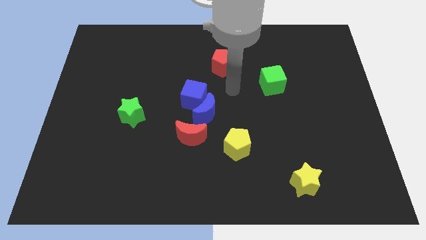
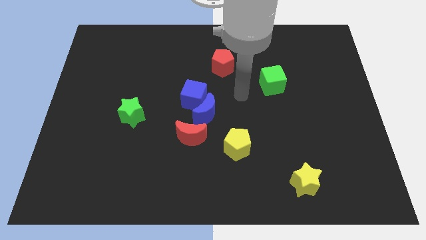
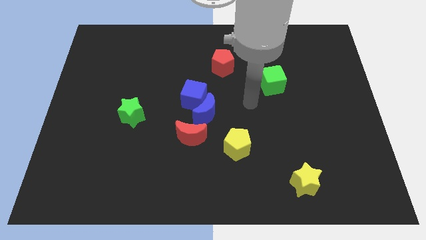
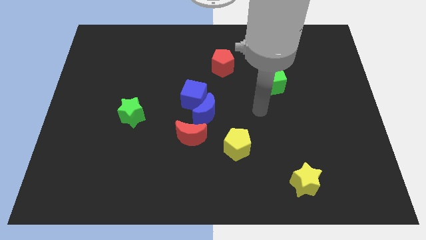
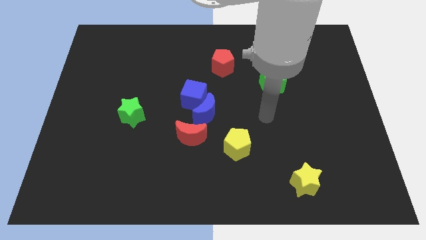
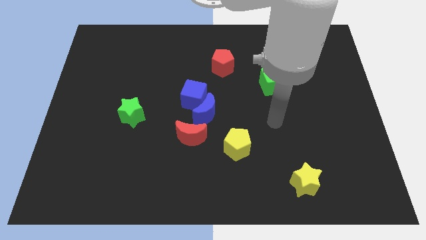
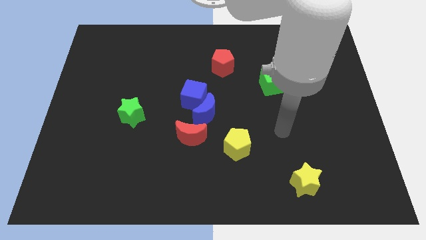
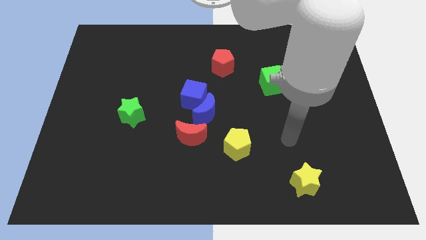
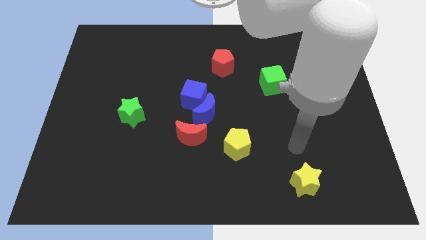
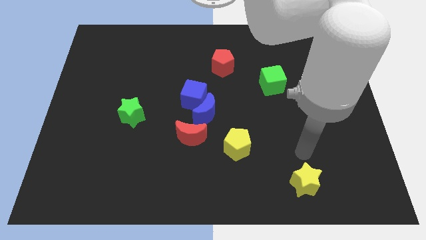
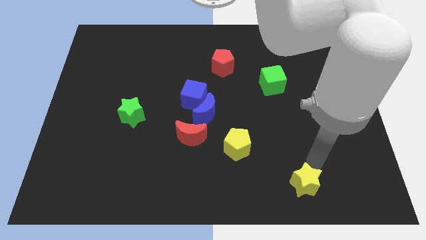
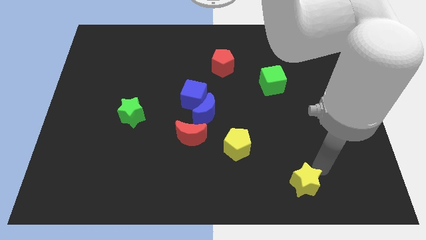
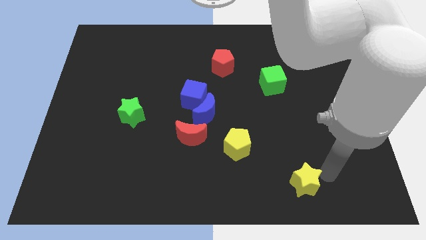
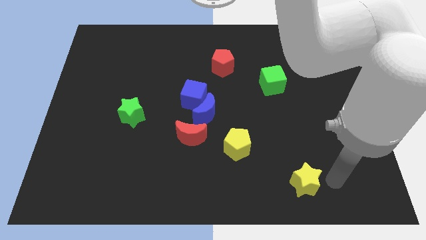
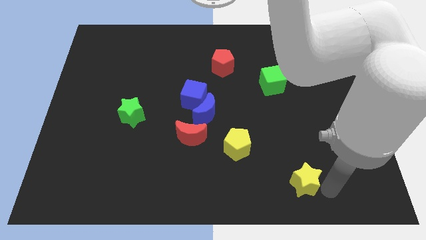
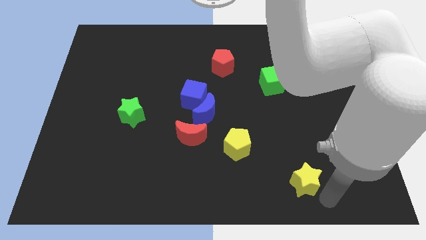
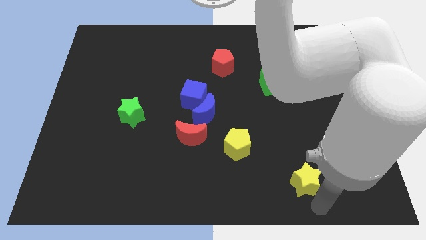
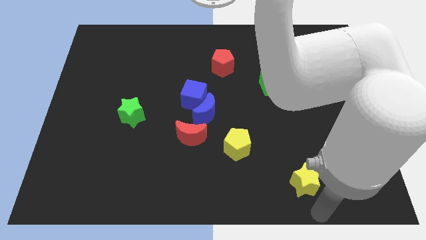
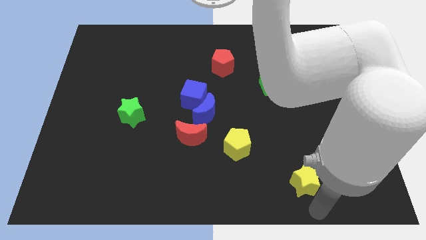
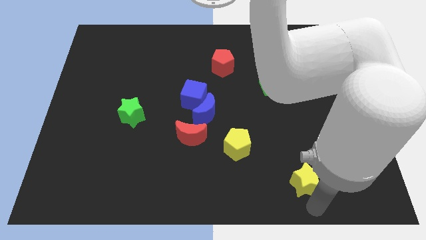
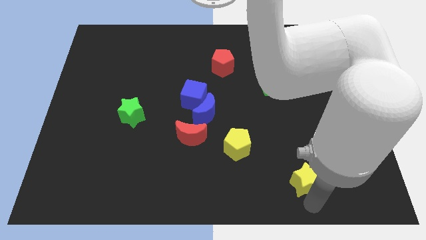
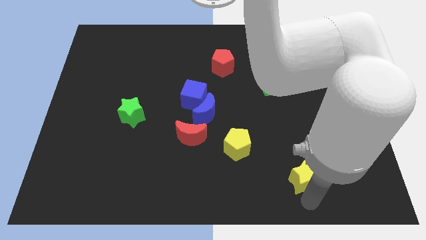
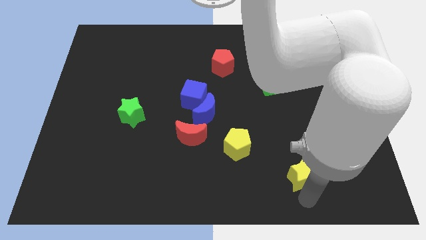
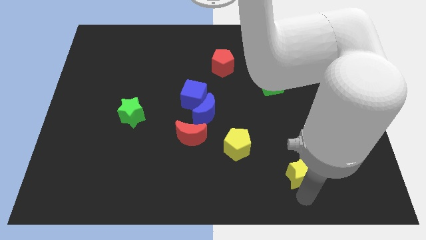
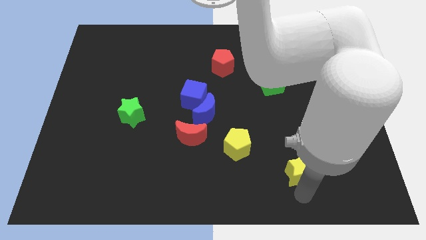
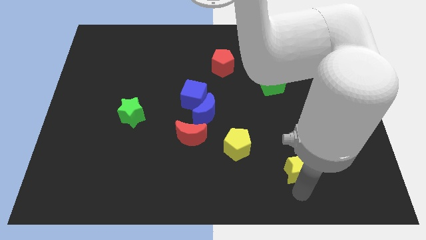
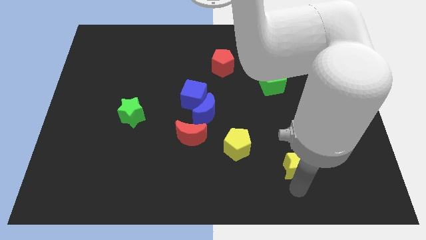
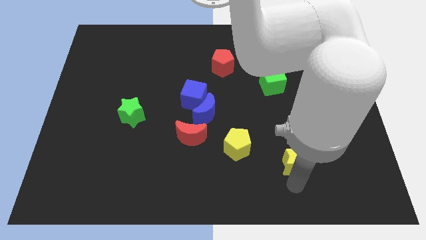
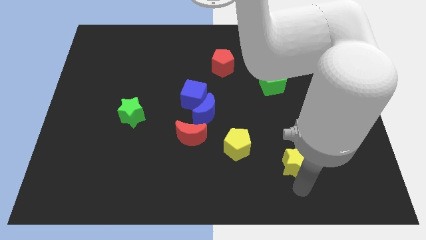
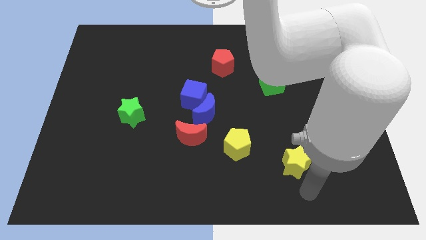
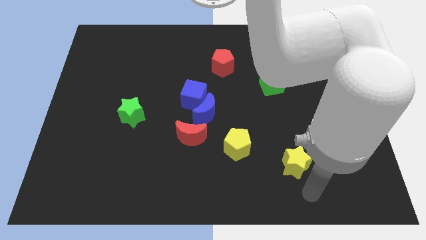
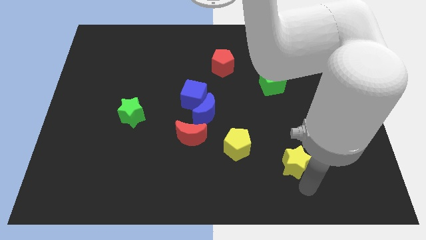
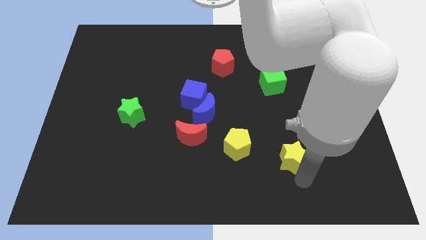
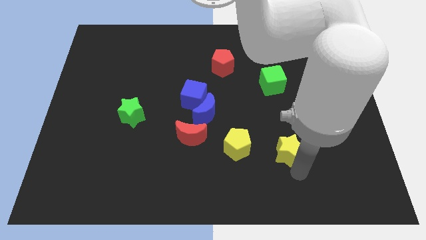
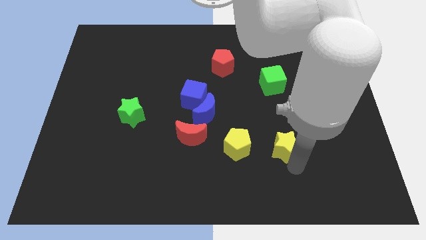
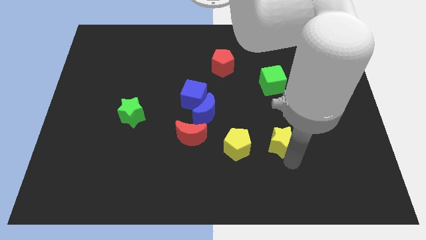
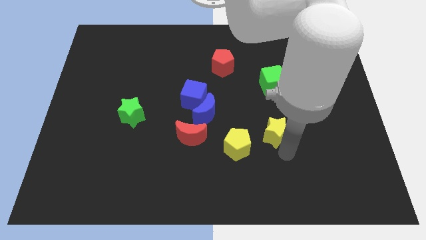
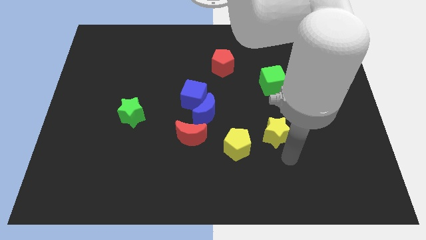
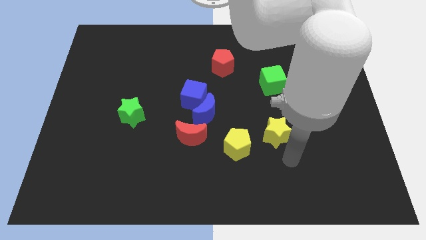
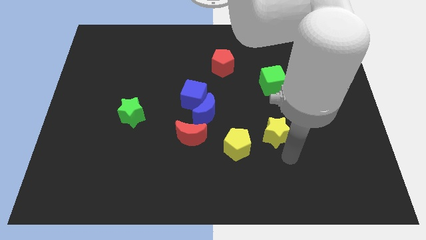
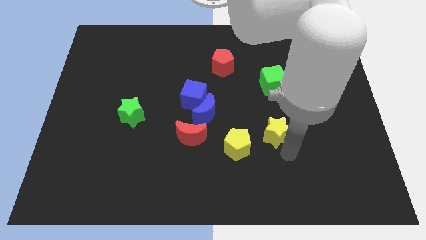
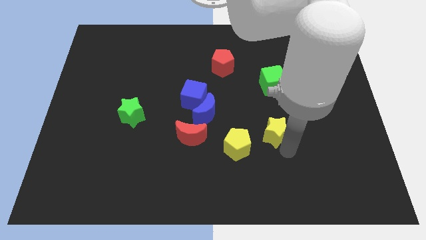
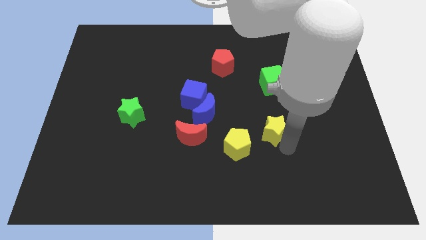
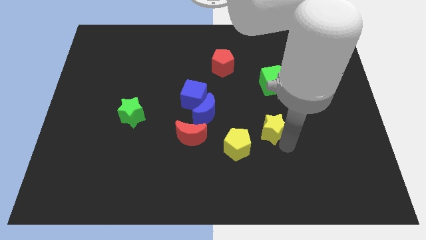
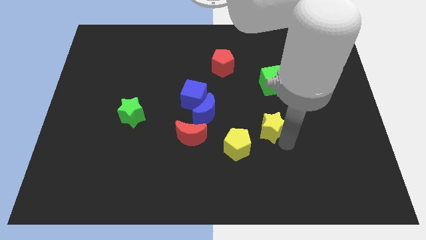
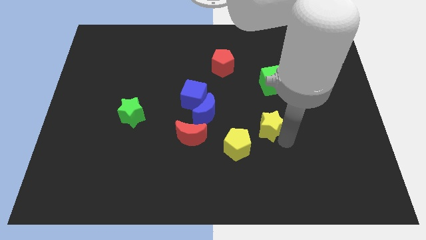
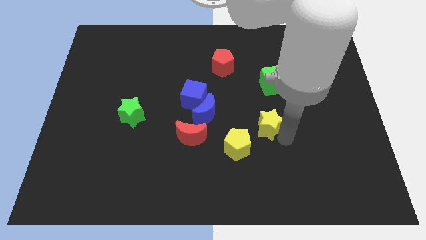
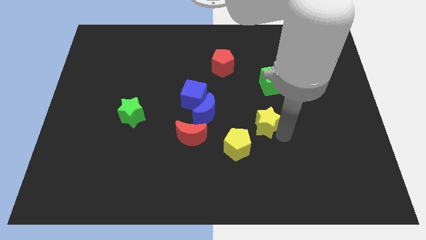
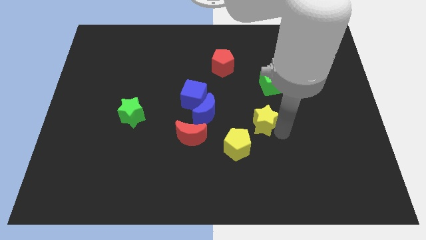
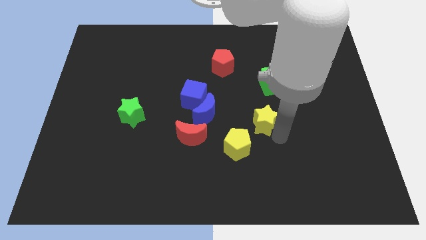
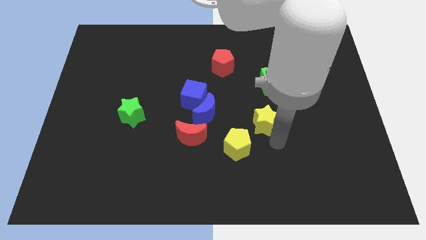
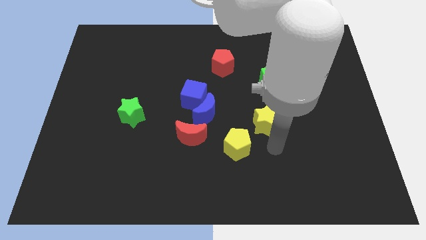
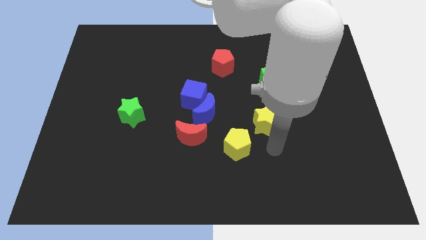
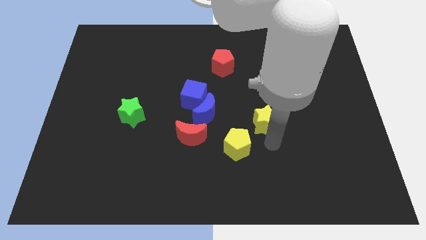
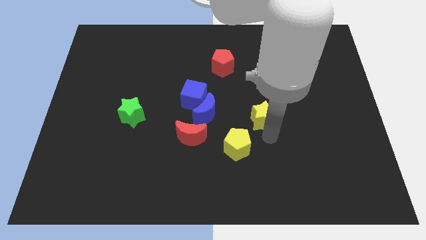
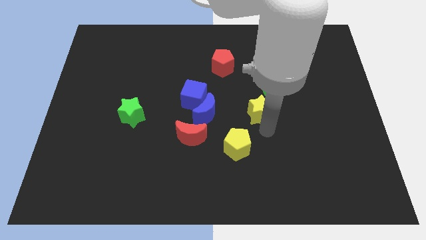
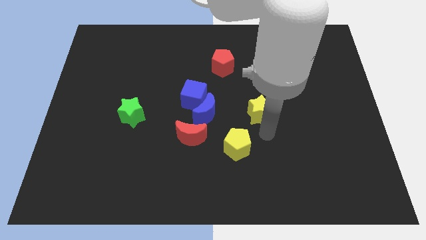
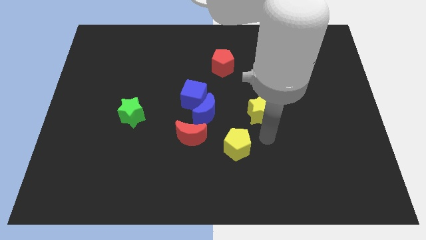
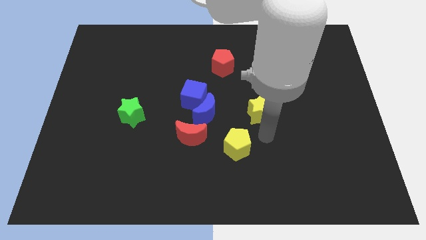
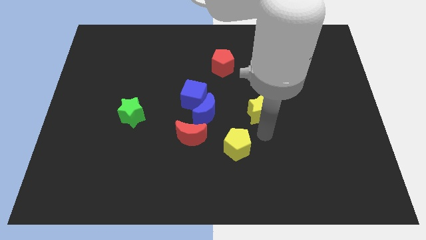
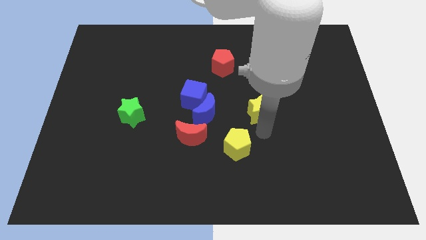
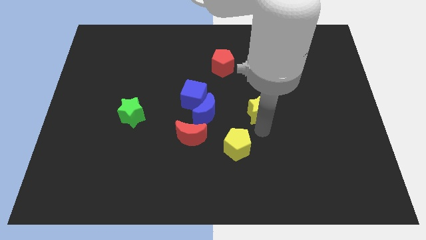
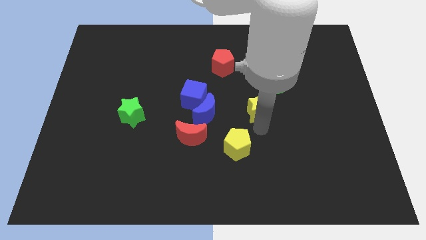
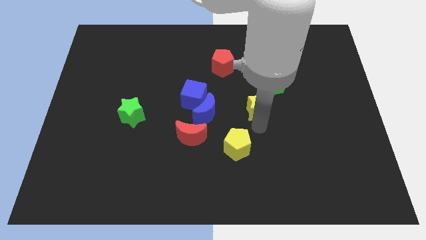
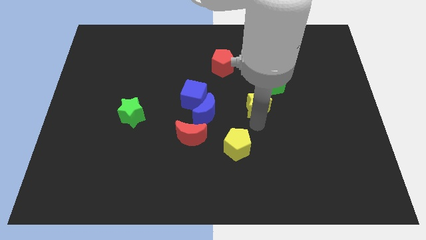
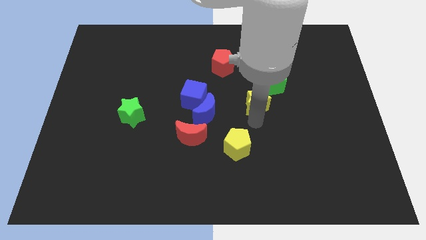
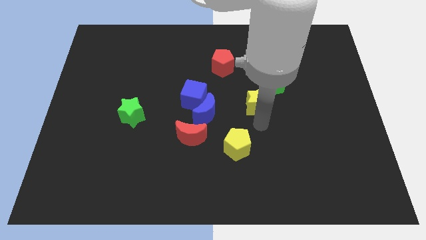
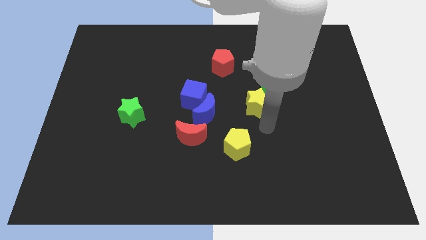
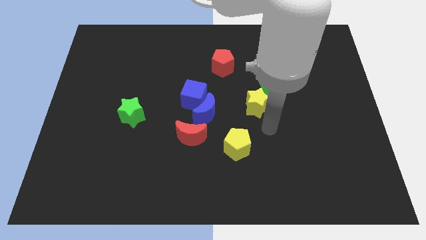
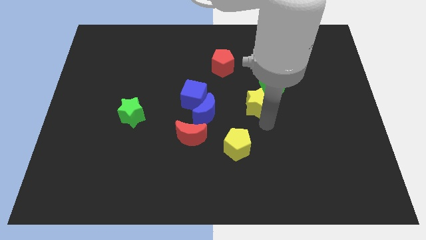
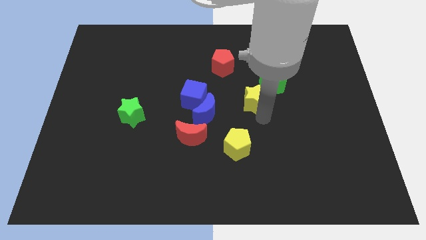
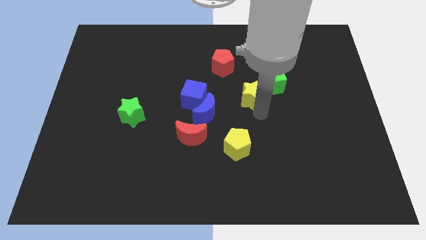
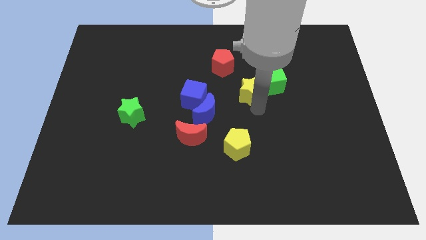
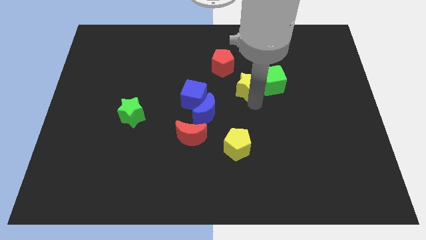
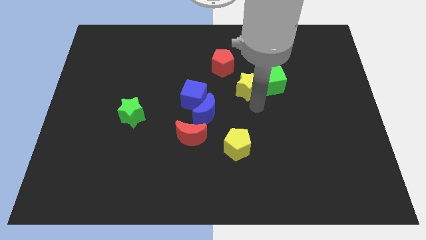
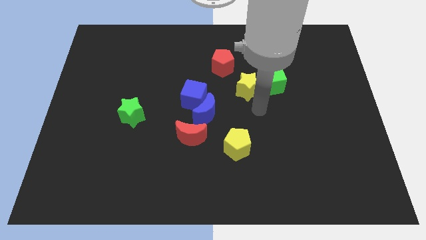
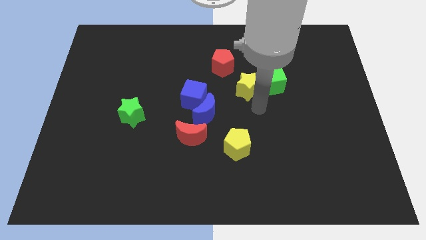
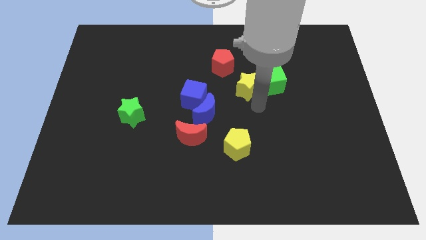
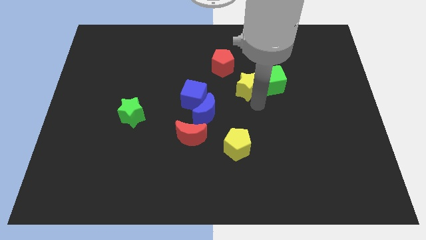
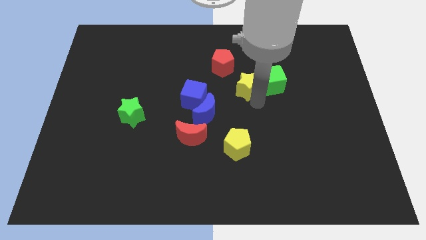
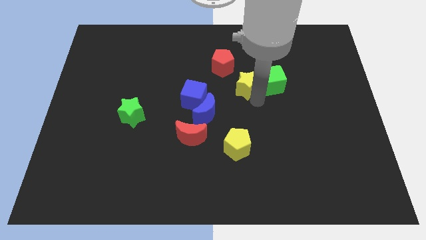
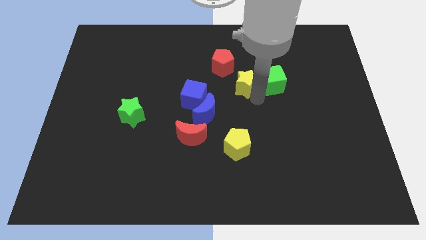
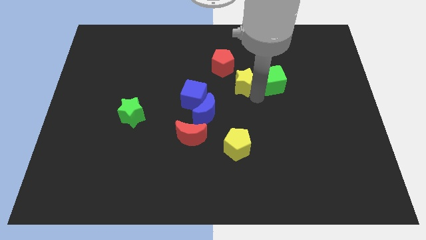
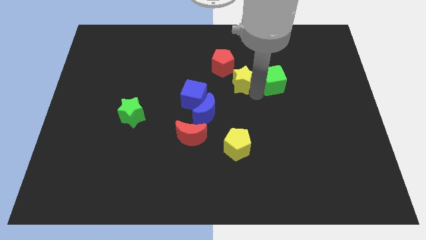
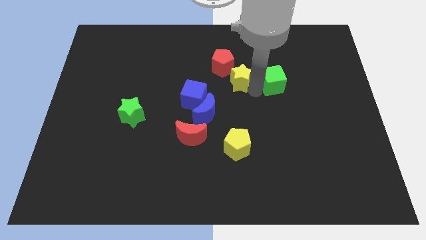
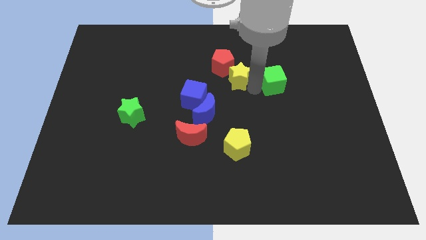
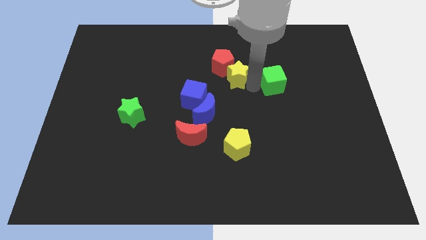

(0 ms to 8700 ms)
put the yellow star next to the red pentagon
